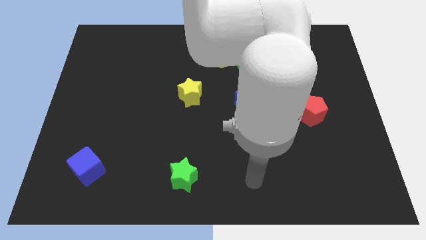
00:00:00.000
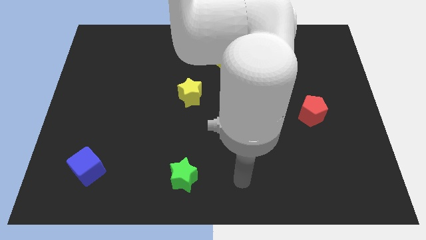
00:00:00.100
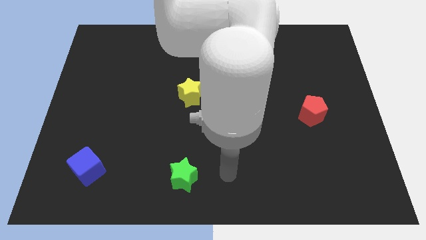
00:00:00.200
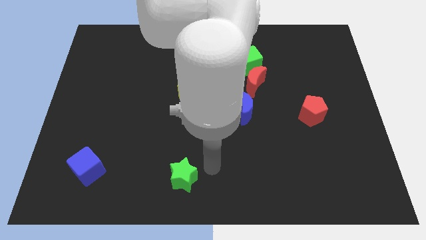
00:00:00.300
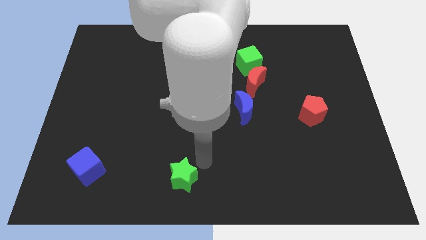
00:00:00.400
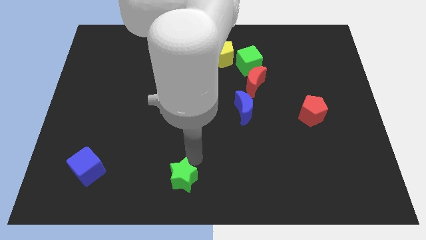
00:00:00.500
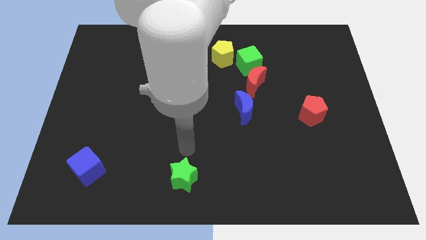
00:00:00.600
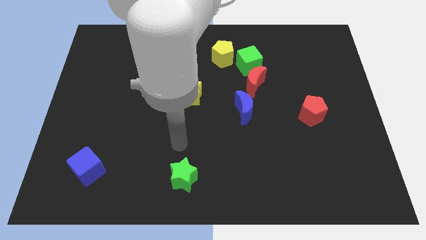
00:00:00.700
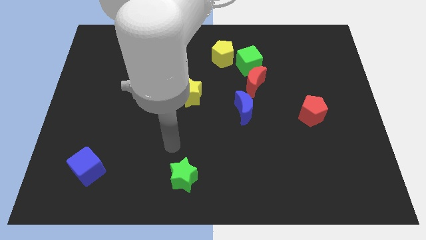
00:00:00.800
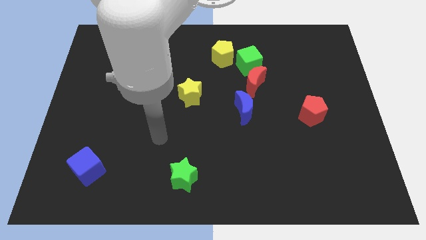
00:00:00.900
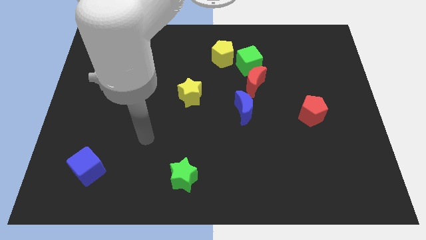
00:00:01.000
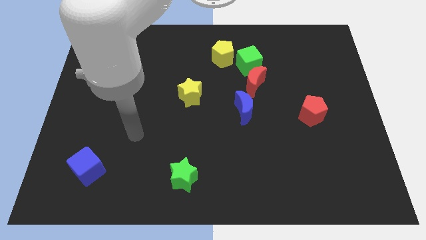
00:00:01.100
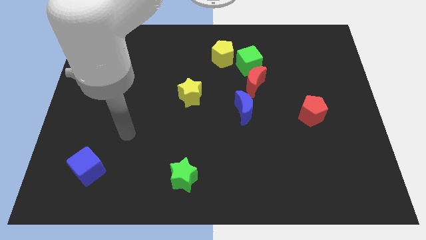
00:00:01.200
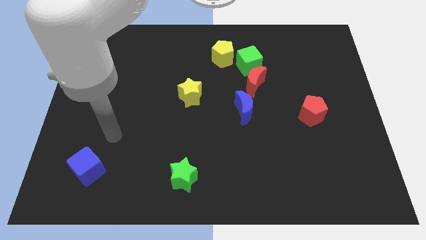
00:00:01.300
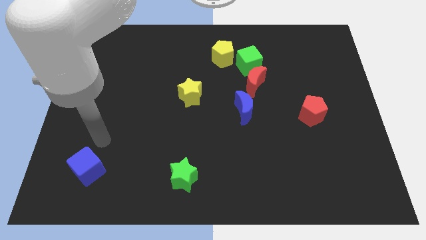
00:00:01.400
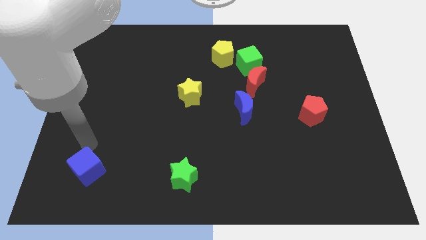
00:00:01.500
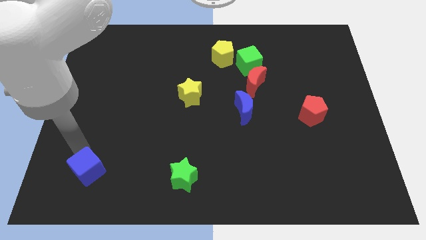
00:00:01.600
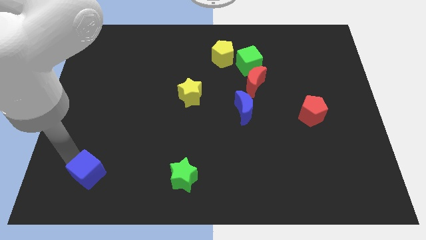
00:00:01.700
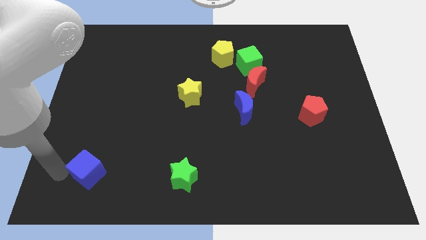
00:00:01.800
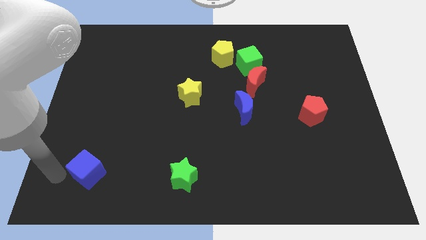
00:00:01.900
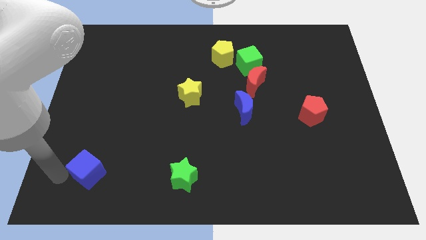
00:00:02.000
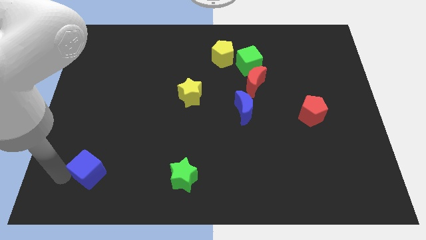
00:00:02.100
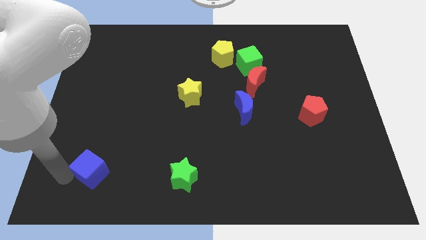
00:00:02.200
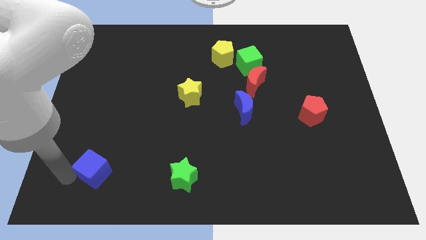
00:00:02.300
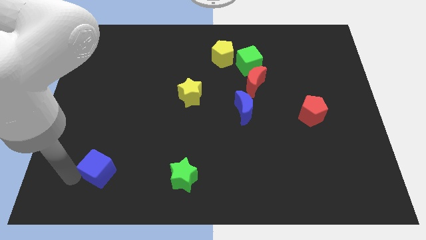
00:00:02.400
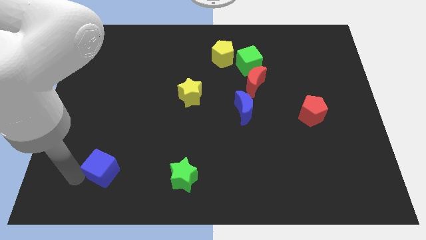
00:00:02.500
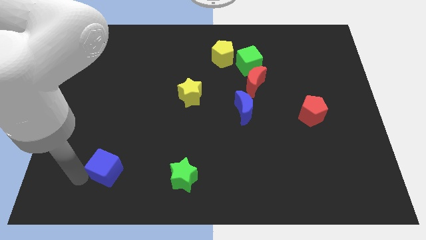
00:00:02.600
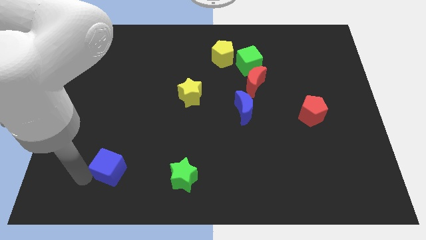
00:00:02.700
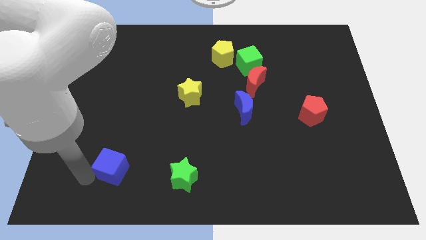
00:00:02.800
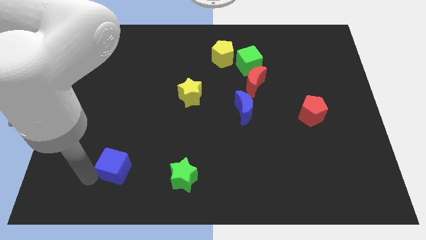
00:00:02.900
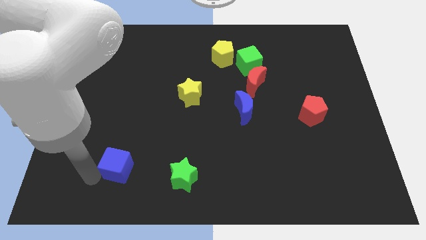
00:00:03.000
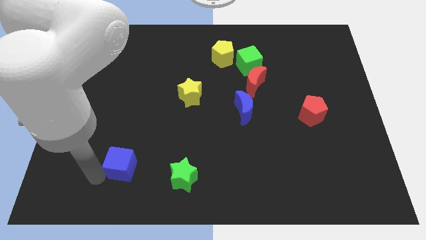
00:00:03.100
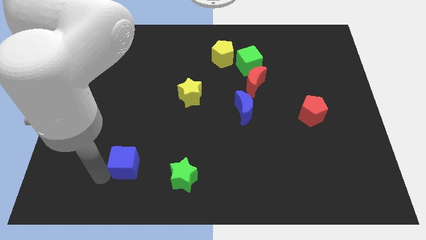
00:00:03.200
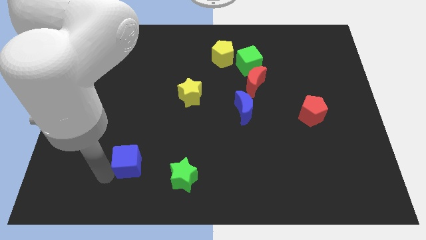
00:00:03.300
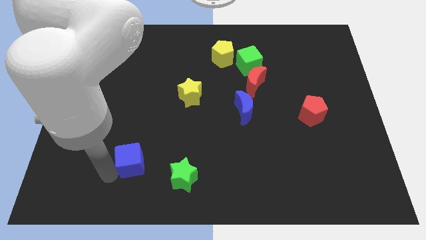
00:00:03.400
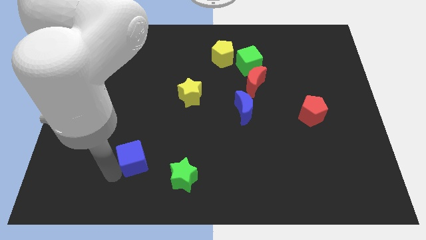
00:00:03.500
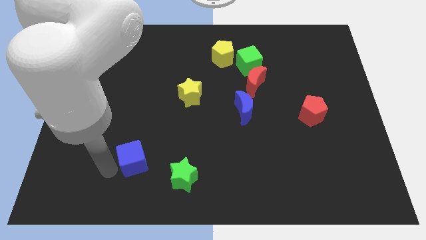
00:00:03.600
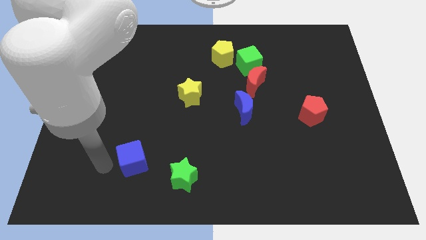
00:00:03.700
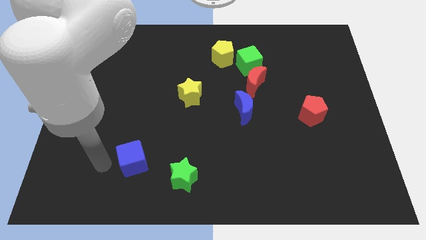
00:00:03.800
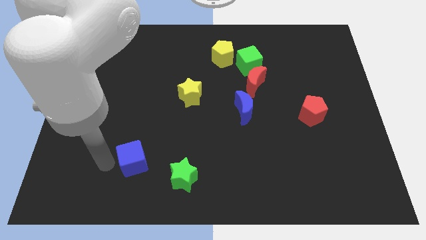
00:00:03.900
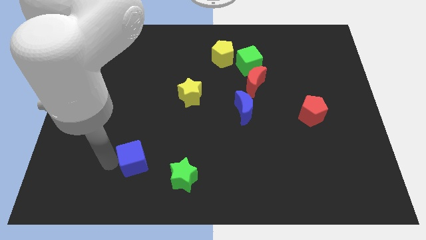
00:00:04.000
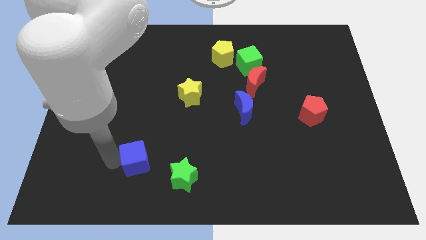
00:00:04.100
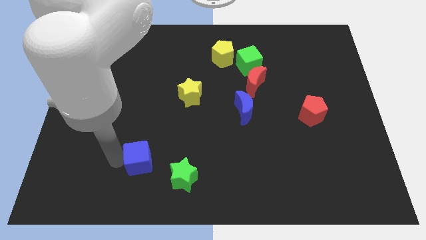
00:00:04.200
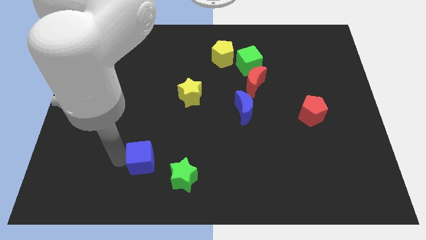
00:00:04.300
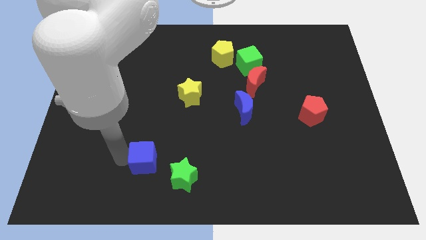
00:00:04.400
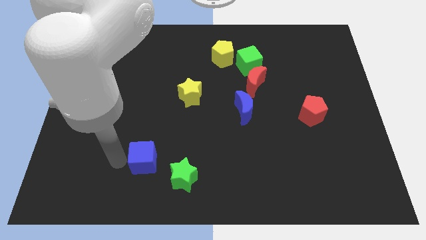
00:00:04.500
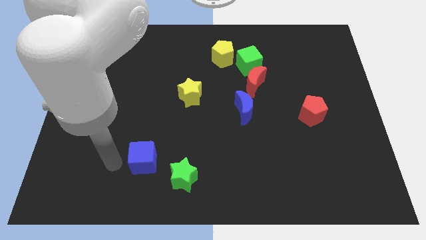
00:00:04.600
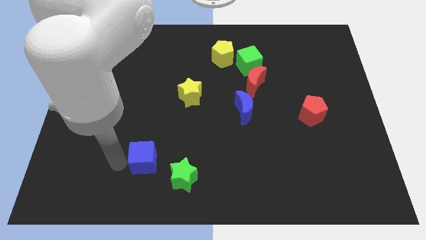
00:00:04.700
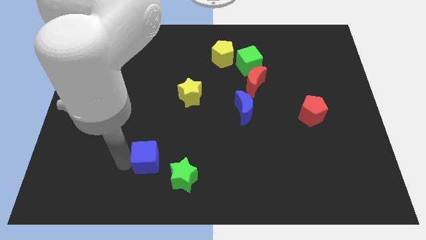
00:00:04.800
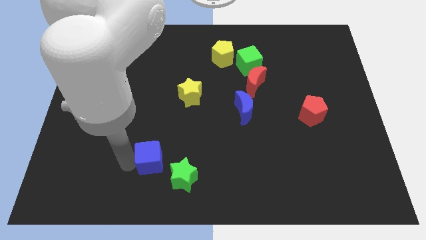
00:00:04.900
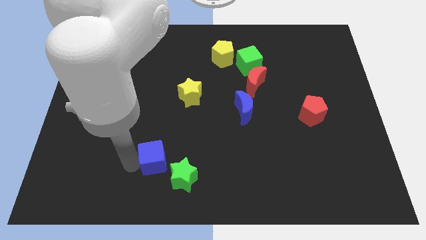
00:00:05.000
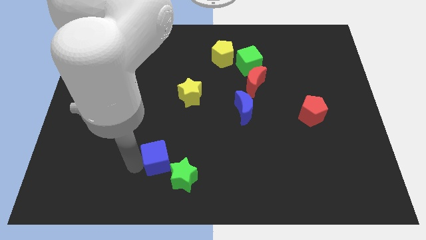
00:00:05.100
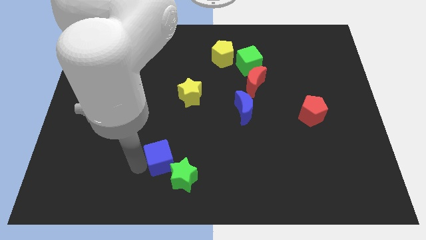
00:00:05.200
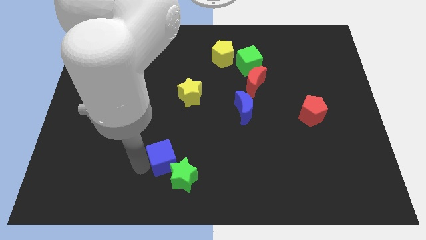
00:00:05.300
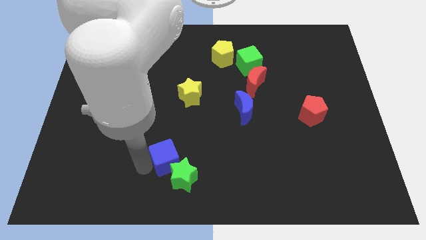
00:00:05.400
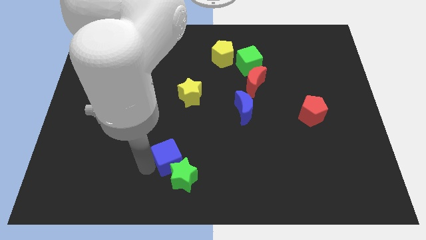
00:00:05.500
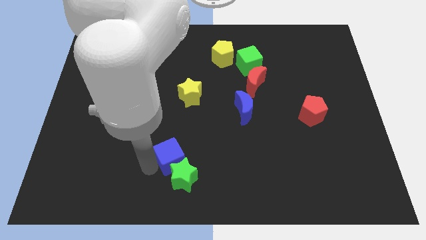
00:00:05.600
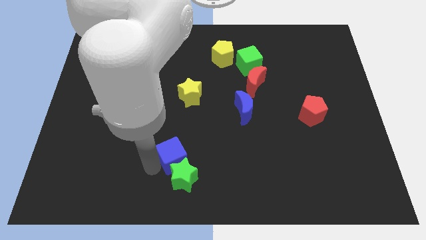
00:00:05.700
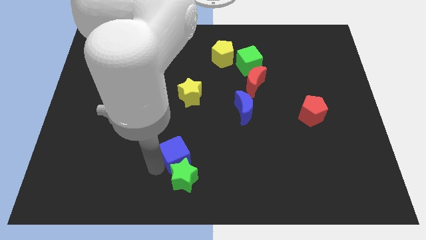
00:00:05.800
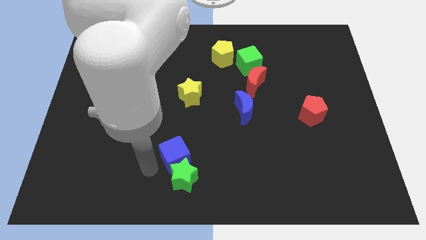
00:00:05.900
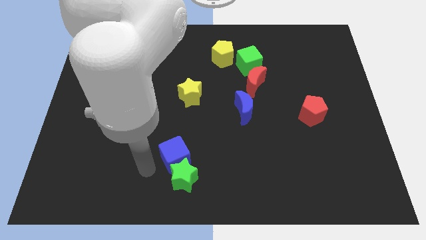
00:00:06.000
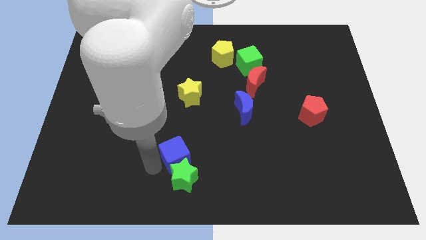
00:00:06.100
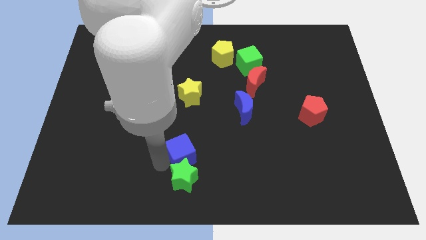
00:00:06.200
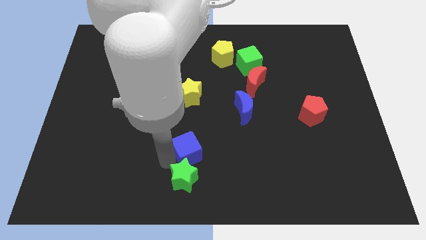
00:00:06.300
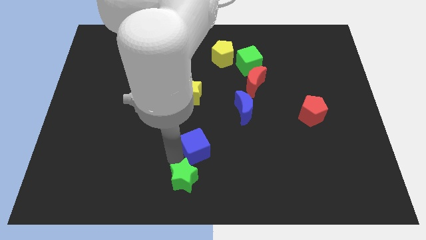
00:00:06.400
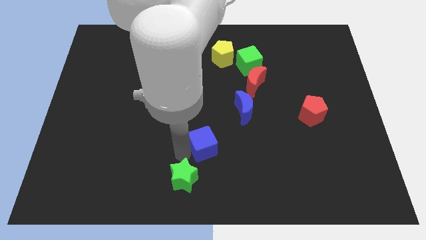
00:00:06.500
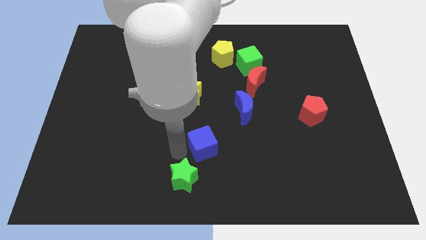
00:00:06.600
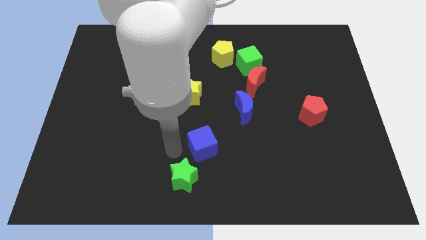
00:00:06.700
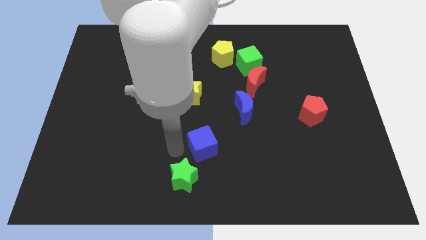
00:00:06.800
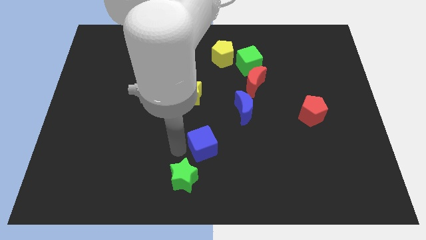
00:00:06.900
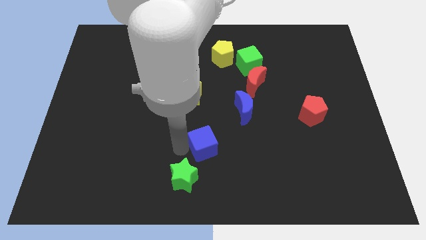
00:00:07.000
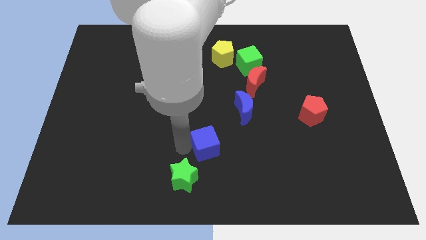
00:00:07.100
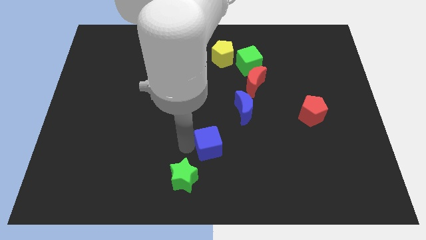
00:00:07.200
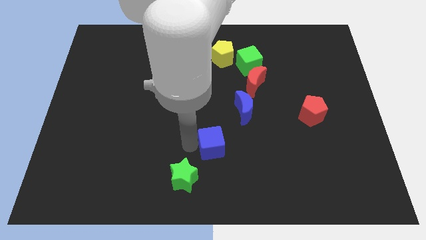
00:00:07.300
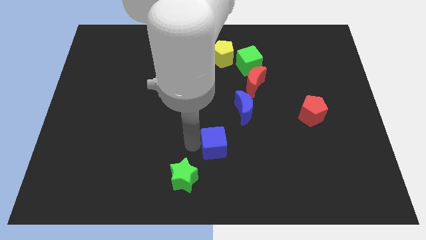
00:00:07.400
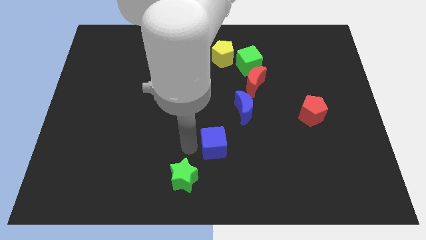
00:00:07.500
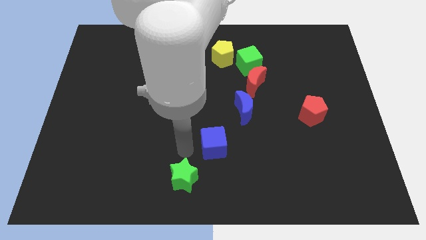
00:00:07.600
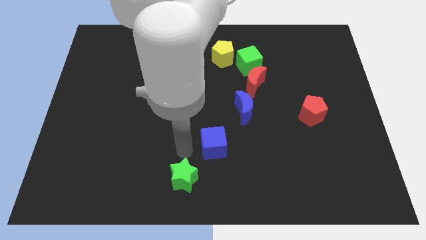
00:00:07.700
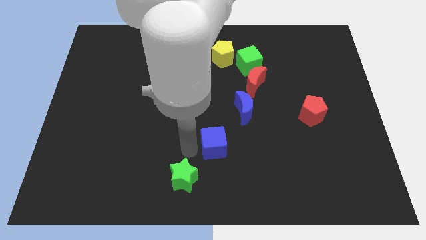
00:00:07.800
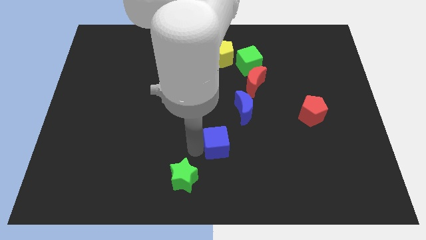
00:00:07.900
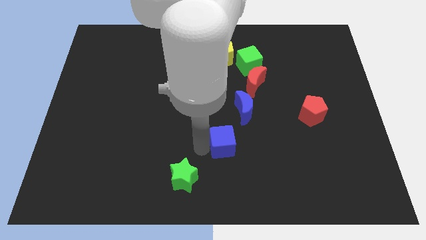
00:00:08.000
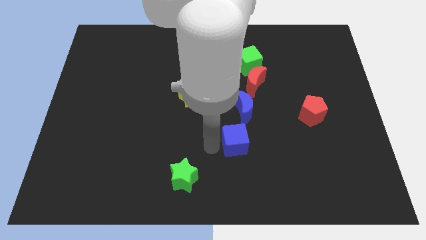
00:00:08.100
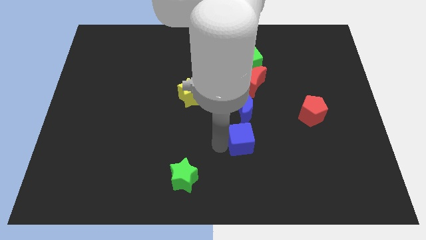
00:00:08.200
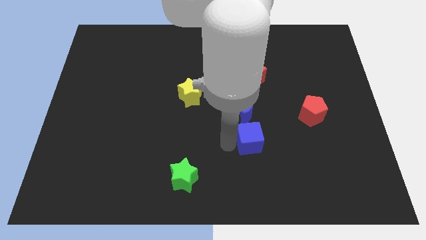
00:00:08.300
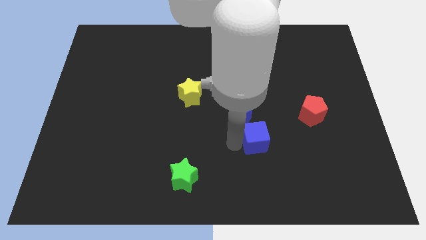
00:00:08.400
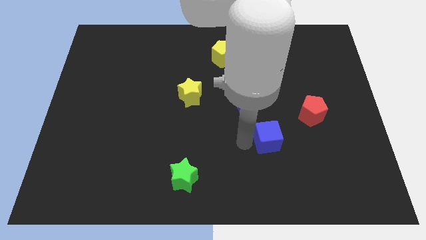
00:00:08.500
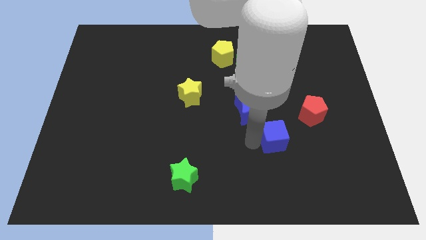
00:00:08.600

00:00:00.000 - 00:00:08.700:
put the blue cube to the bottom left of the red pentagon
